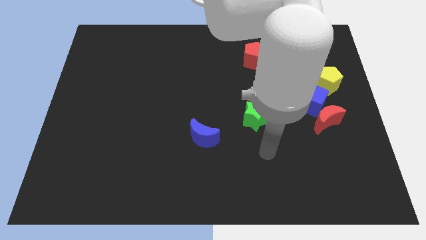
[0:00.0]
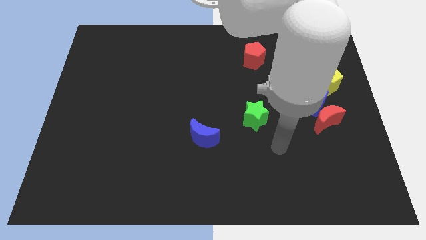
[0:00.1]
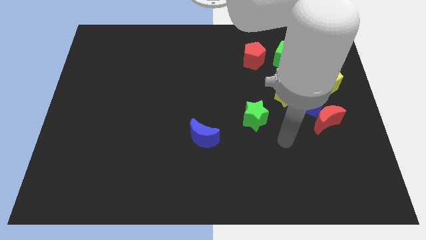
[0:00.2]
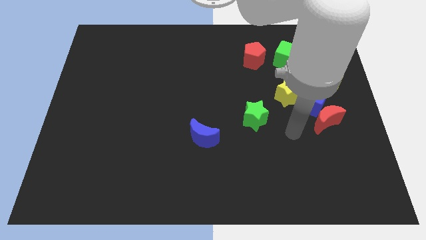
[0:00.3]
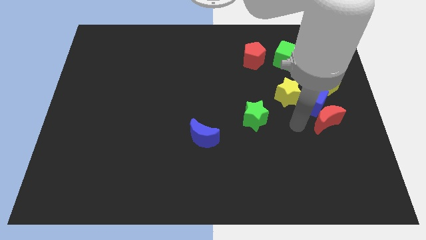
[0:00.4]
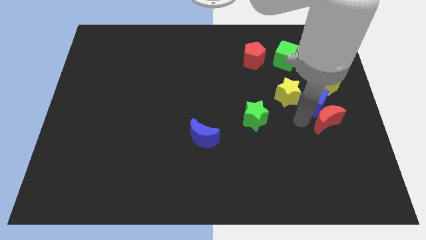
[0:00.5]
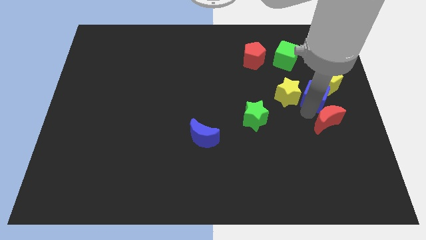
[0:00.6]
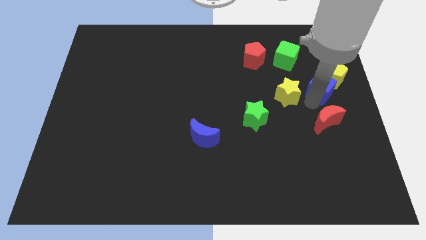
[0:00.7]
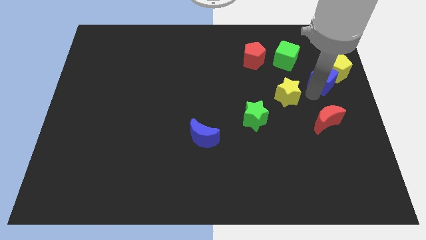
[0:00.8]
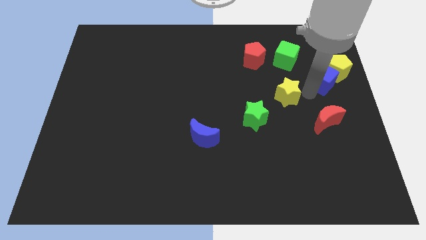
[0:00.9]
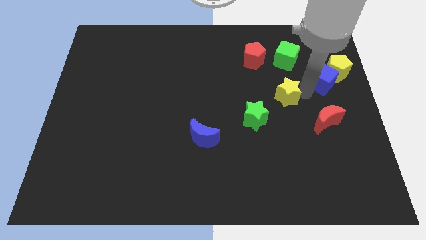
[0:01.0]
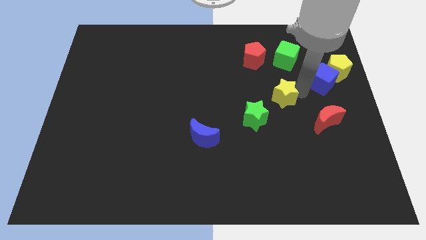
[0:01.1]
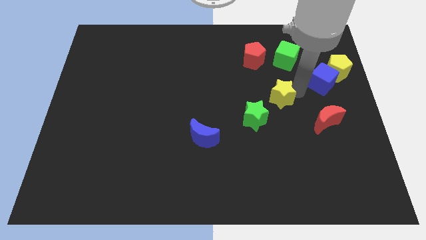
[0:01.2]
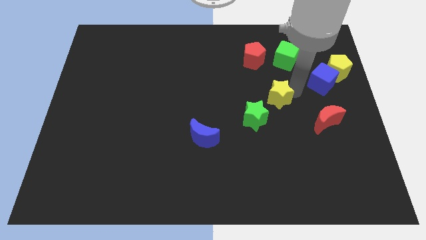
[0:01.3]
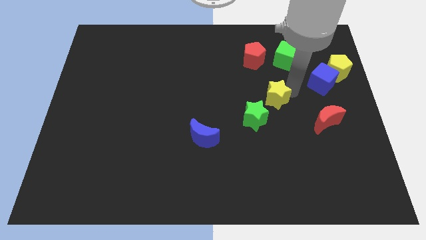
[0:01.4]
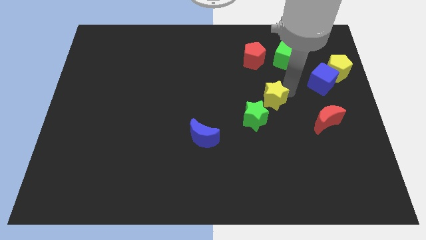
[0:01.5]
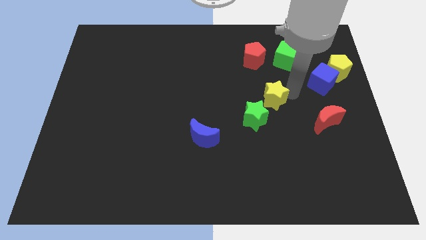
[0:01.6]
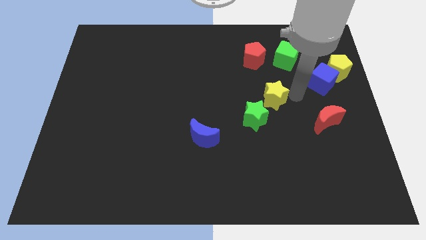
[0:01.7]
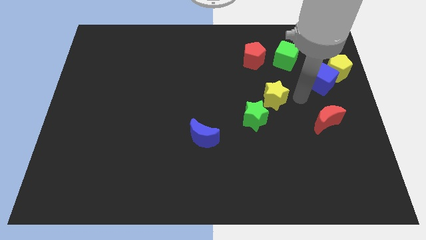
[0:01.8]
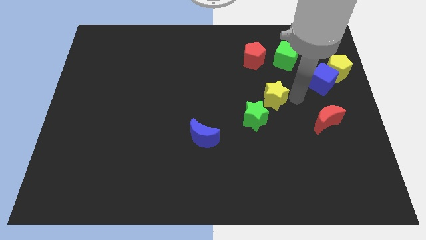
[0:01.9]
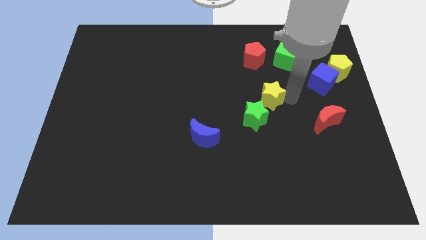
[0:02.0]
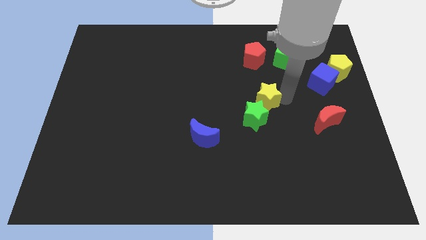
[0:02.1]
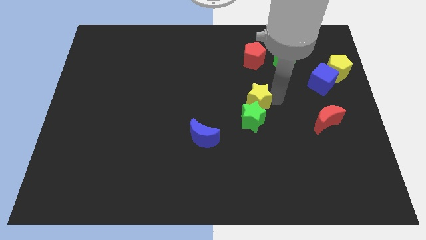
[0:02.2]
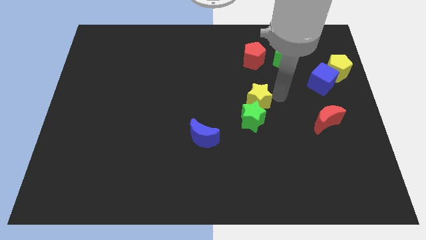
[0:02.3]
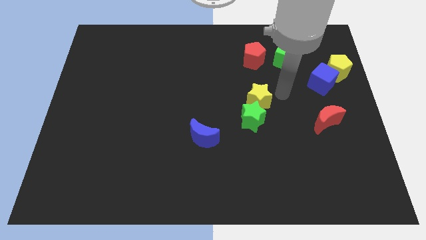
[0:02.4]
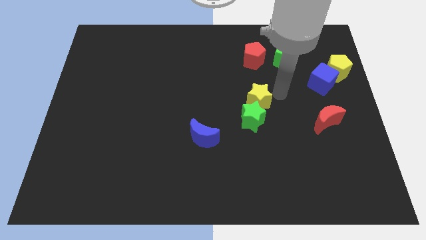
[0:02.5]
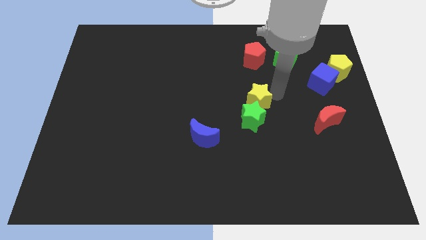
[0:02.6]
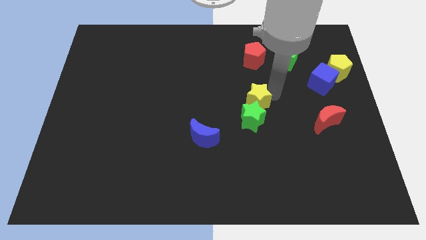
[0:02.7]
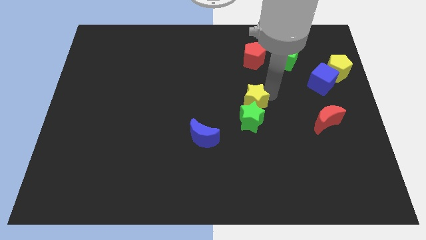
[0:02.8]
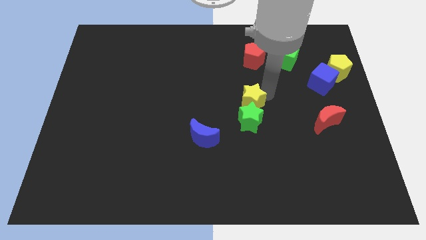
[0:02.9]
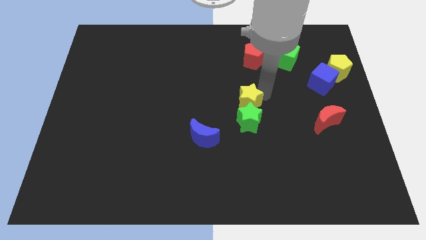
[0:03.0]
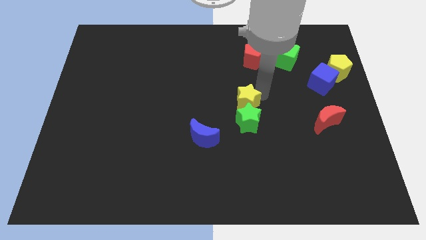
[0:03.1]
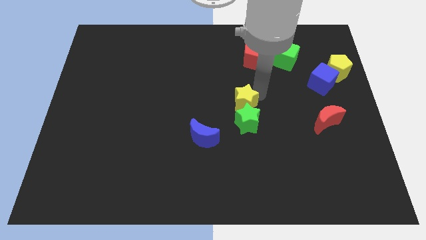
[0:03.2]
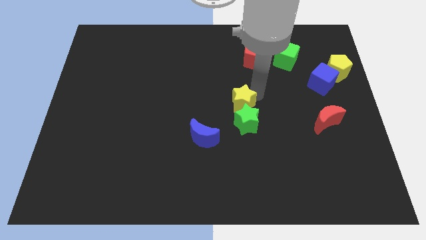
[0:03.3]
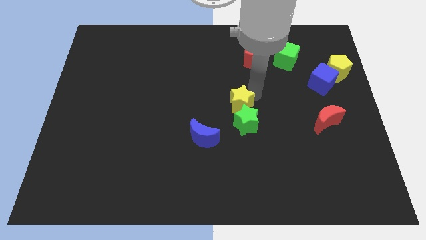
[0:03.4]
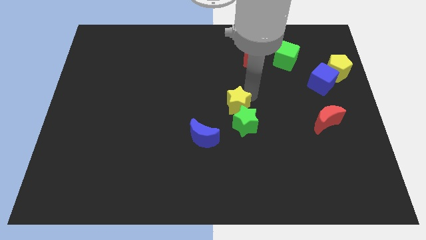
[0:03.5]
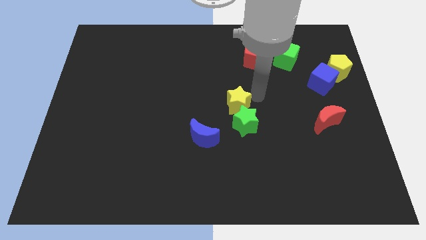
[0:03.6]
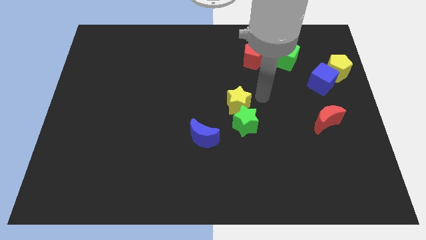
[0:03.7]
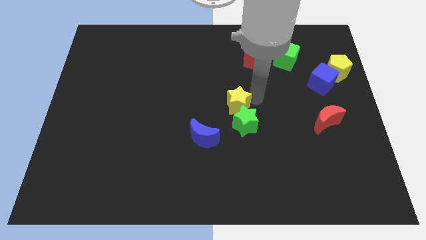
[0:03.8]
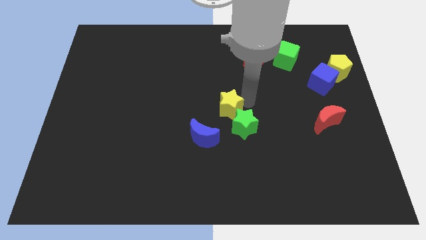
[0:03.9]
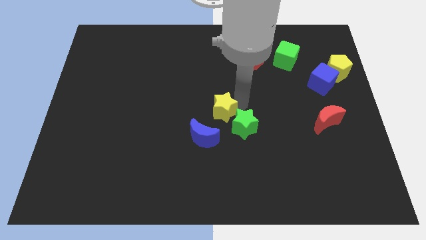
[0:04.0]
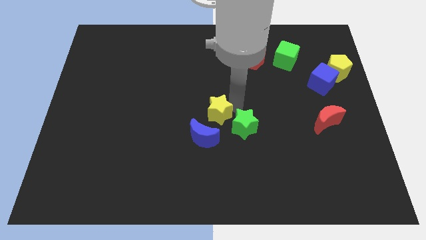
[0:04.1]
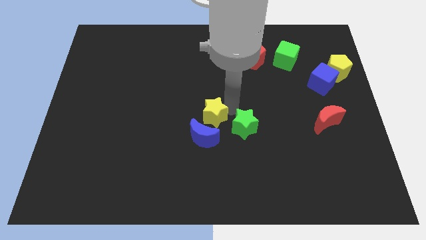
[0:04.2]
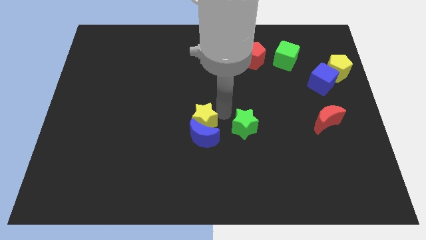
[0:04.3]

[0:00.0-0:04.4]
put the yellow star to the top left side of the blue moon

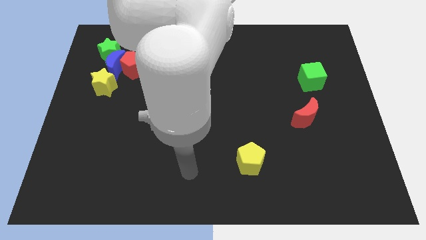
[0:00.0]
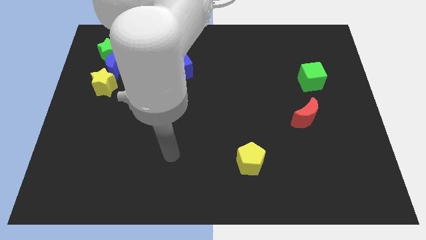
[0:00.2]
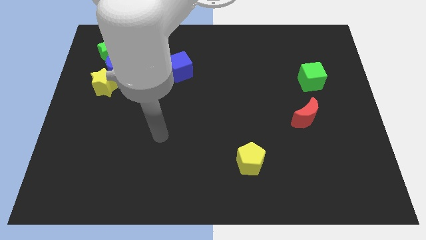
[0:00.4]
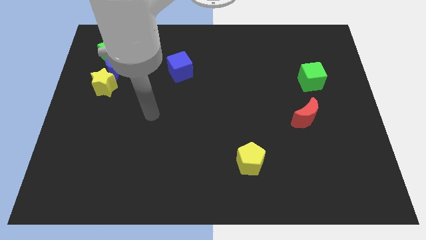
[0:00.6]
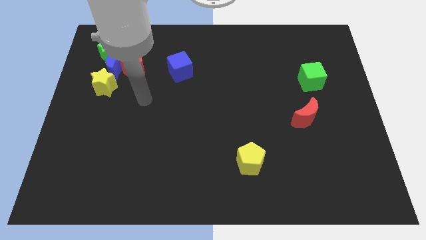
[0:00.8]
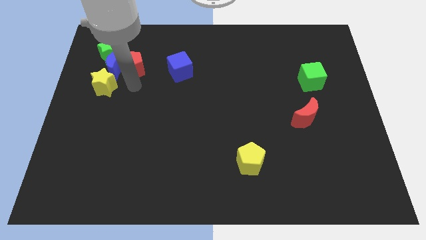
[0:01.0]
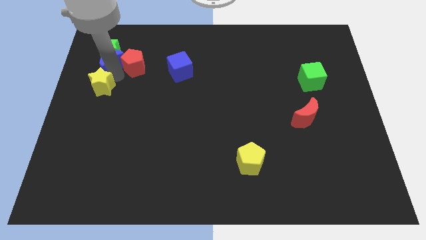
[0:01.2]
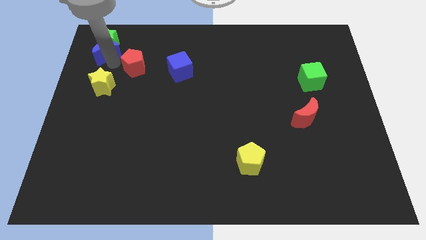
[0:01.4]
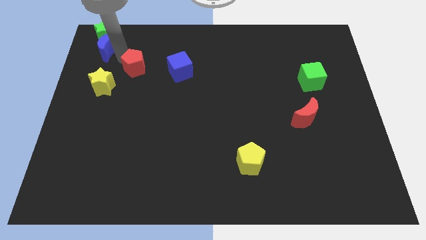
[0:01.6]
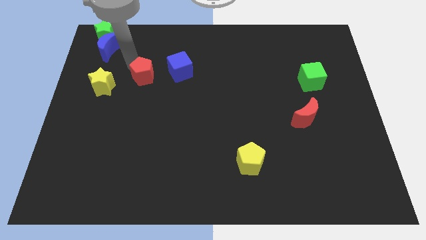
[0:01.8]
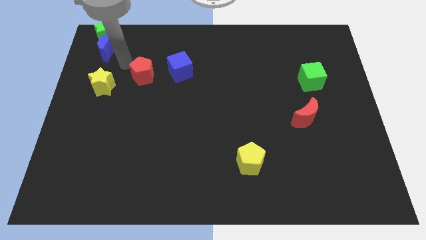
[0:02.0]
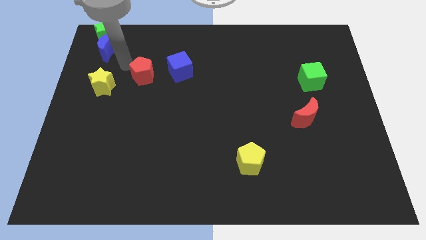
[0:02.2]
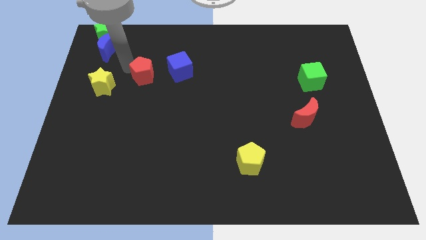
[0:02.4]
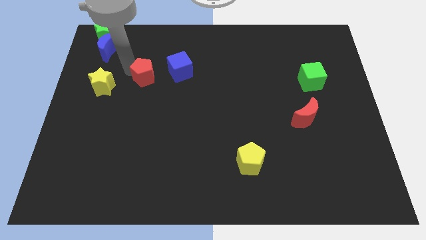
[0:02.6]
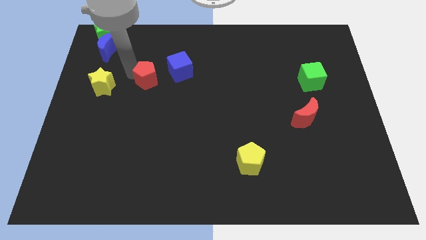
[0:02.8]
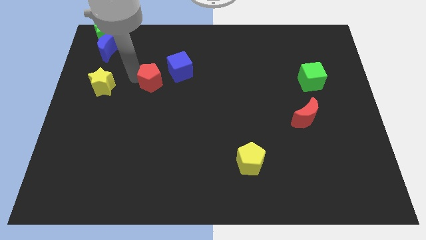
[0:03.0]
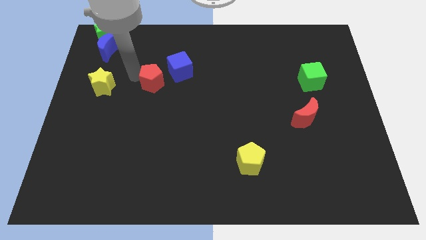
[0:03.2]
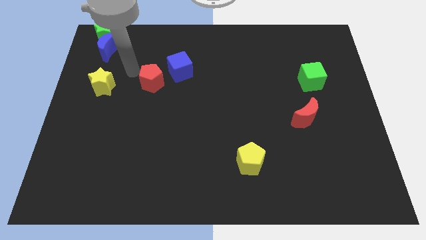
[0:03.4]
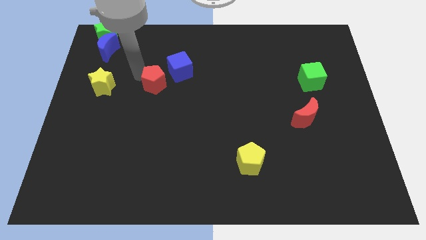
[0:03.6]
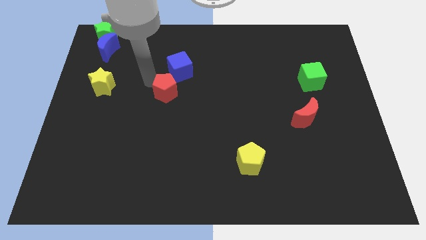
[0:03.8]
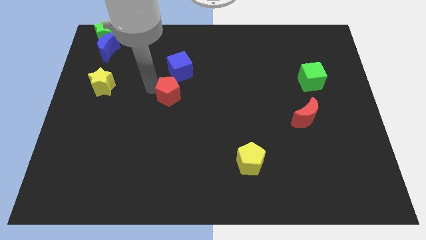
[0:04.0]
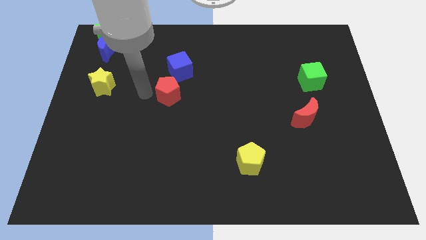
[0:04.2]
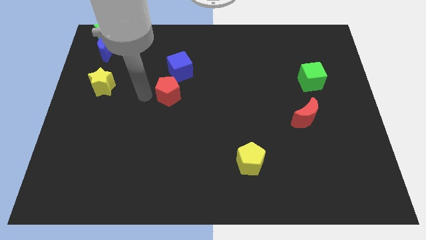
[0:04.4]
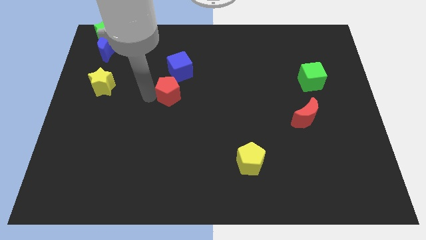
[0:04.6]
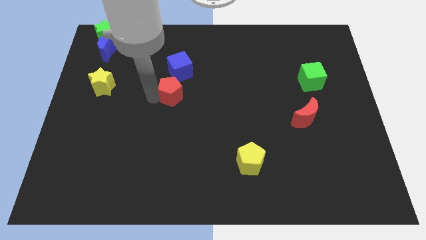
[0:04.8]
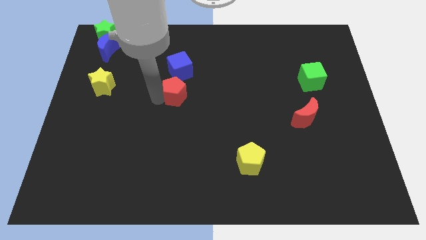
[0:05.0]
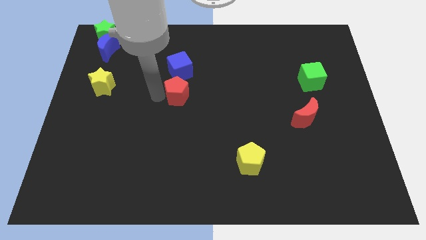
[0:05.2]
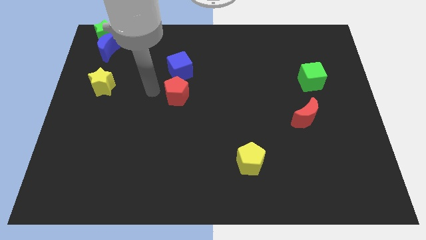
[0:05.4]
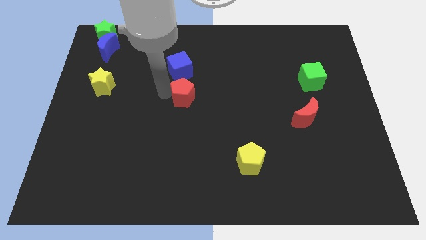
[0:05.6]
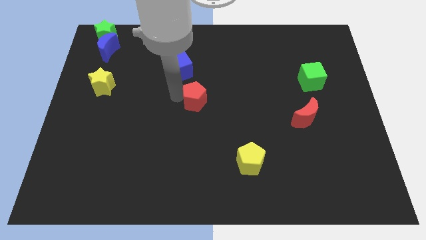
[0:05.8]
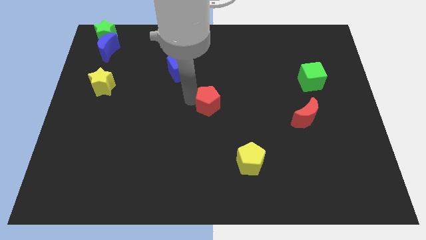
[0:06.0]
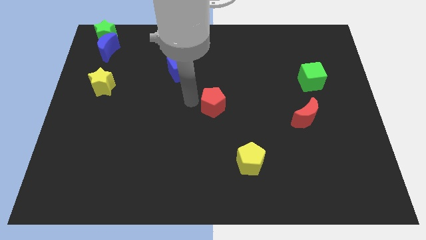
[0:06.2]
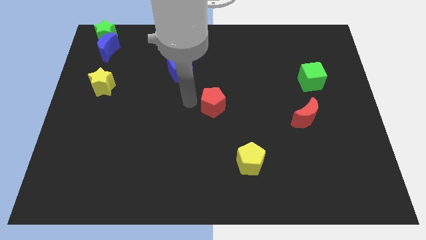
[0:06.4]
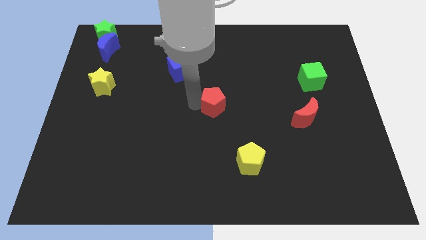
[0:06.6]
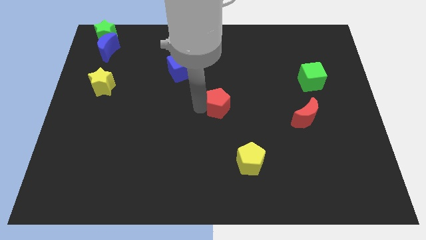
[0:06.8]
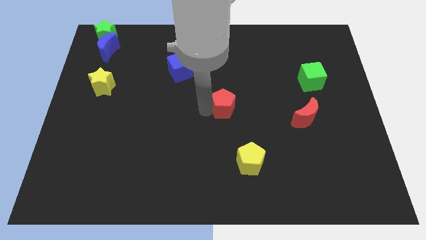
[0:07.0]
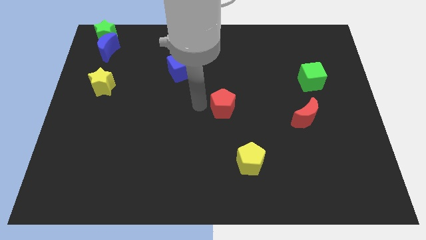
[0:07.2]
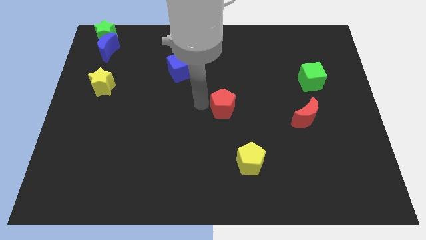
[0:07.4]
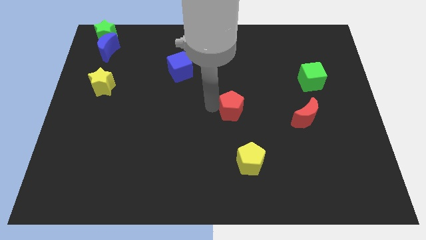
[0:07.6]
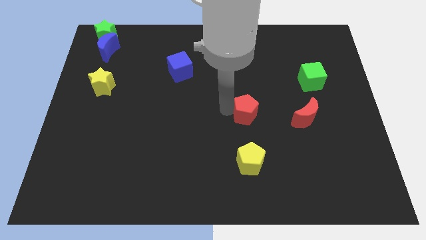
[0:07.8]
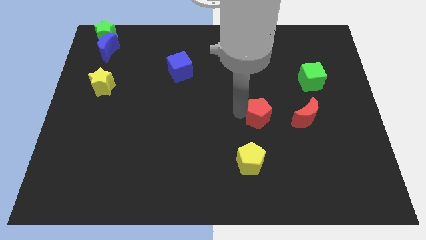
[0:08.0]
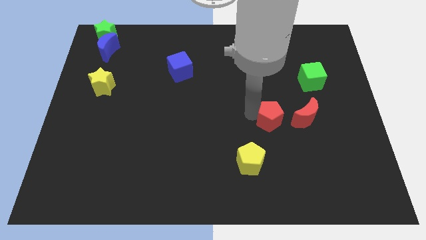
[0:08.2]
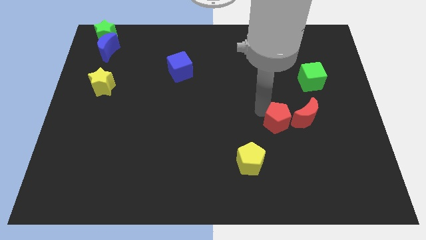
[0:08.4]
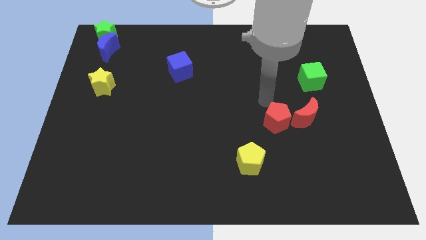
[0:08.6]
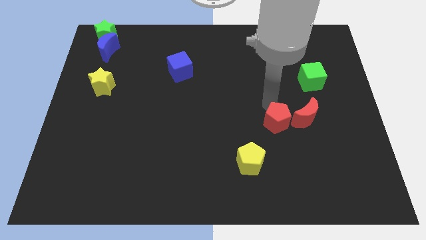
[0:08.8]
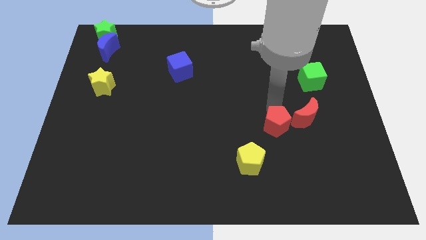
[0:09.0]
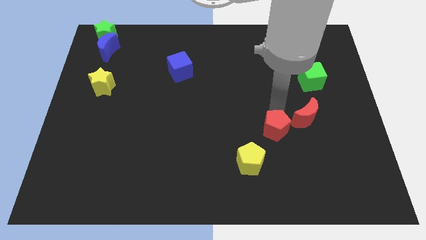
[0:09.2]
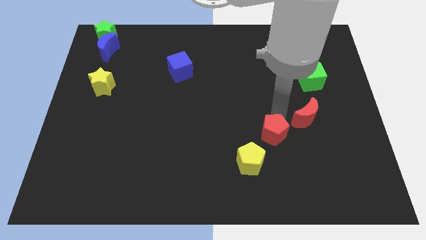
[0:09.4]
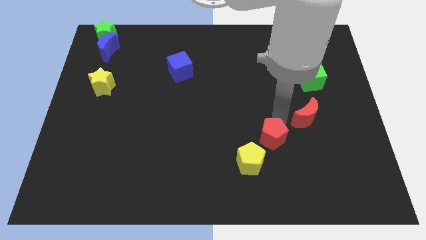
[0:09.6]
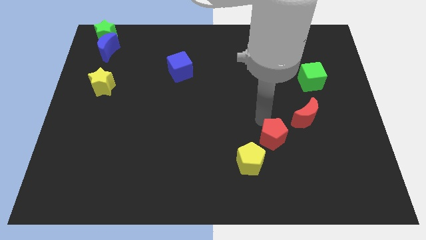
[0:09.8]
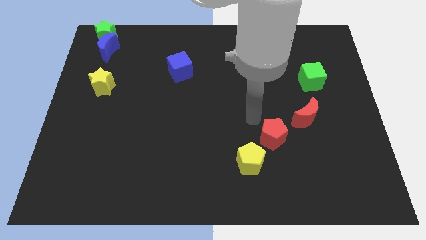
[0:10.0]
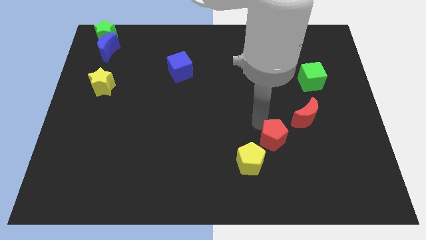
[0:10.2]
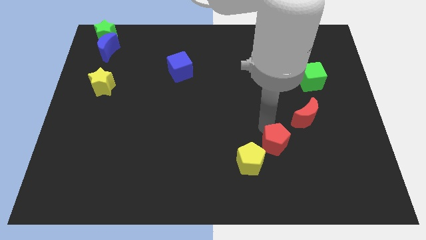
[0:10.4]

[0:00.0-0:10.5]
move the red pentagon to the right side of the yellow pentagon
